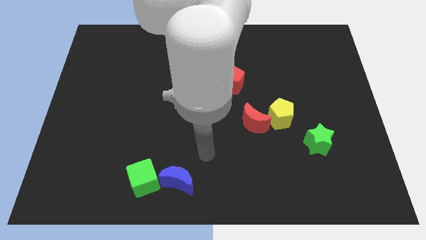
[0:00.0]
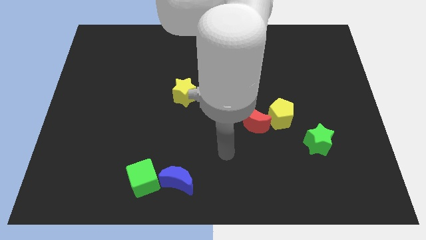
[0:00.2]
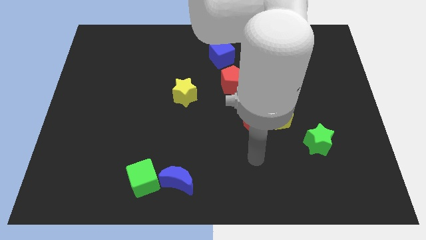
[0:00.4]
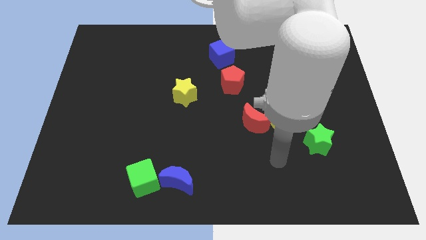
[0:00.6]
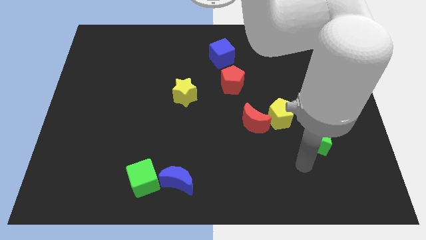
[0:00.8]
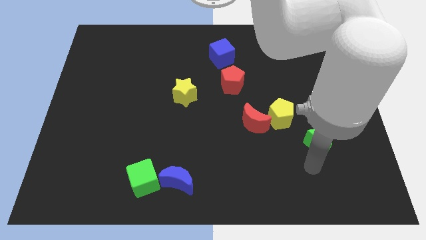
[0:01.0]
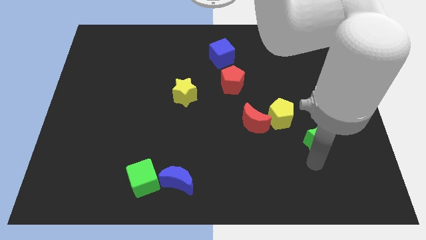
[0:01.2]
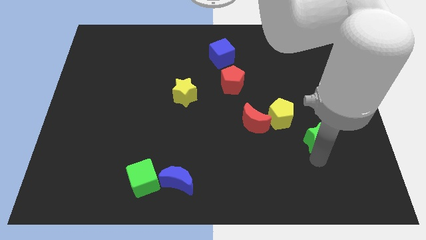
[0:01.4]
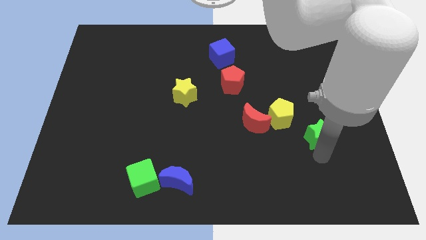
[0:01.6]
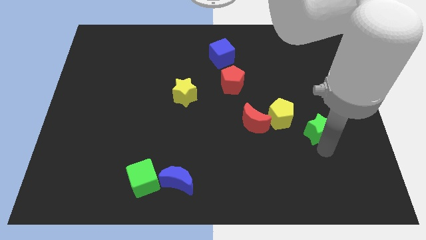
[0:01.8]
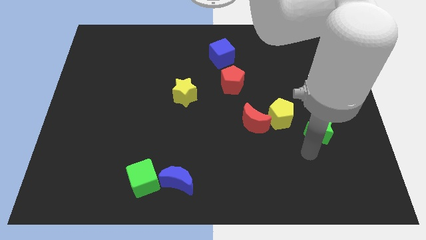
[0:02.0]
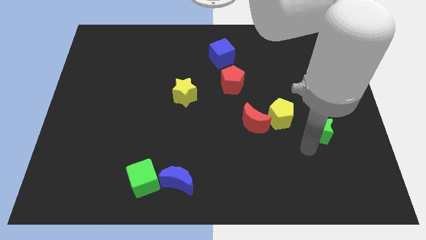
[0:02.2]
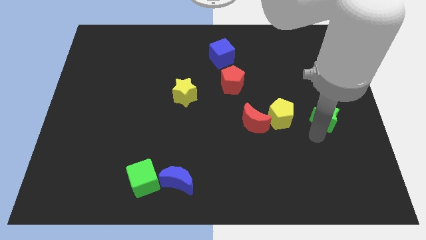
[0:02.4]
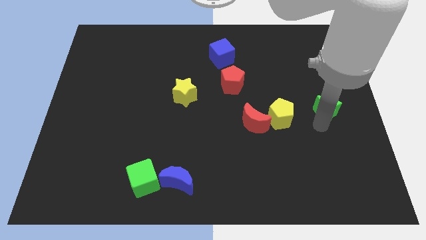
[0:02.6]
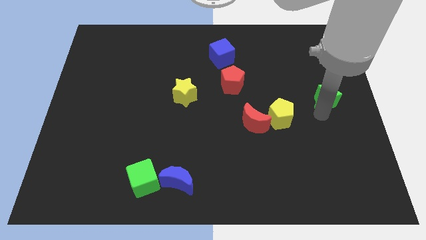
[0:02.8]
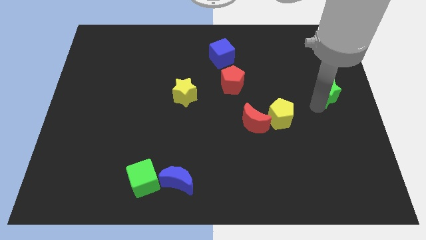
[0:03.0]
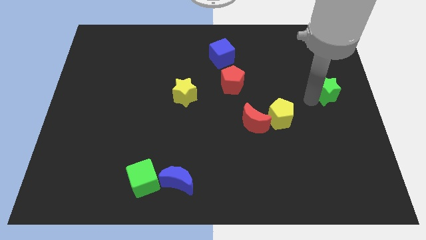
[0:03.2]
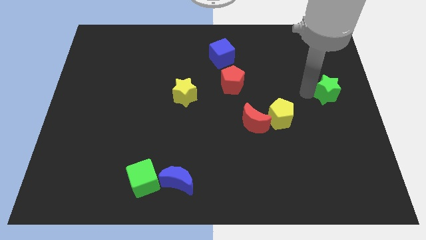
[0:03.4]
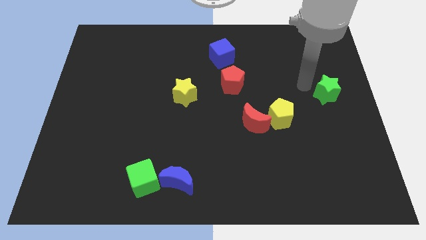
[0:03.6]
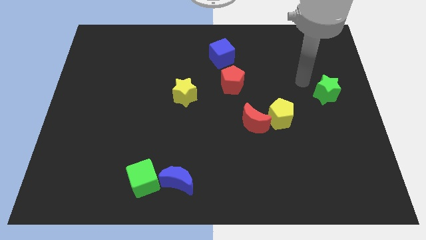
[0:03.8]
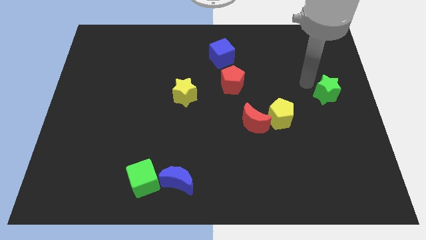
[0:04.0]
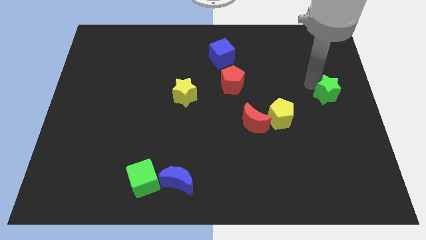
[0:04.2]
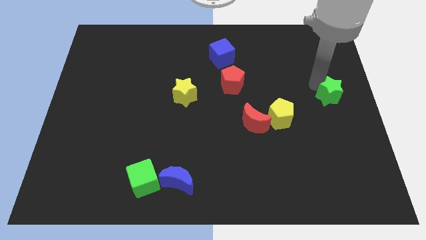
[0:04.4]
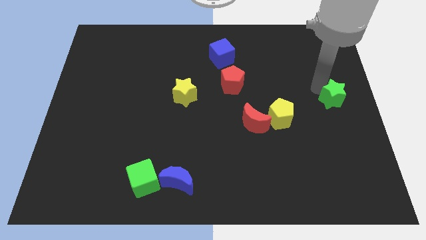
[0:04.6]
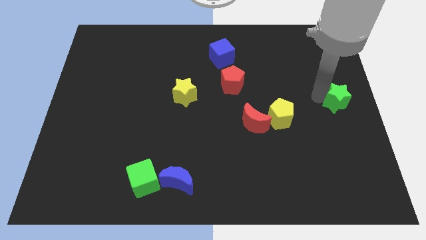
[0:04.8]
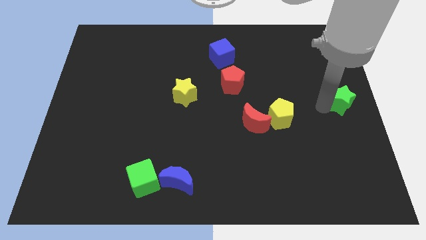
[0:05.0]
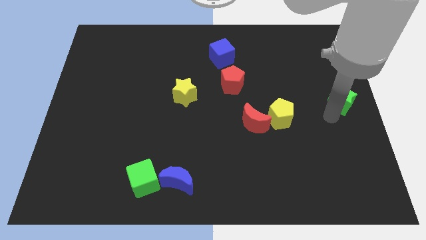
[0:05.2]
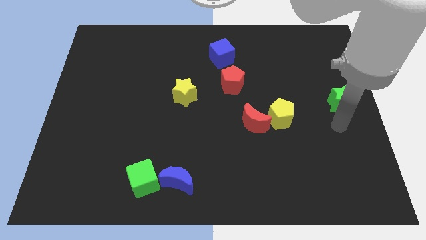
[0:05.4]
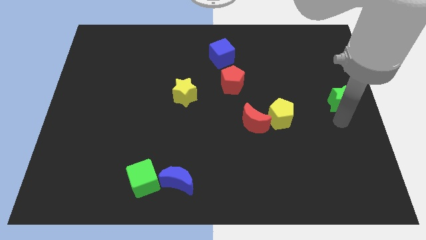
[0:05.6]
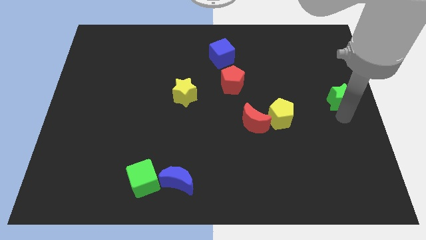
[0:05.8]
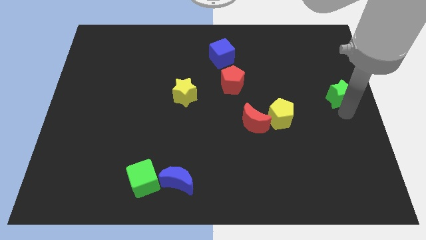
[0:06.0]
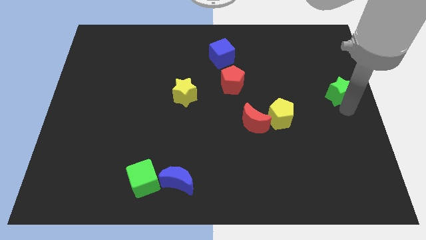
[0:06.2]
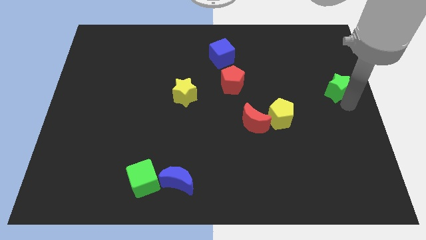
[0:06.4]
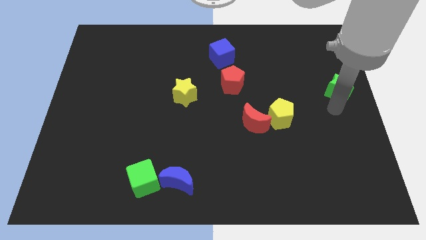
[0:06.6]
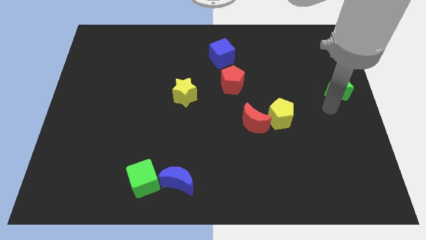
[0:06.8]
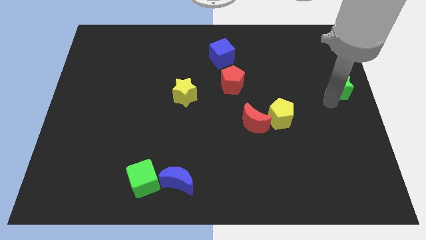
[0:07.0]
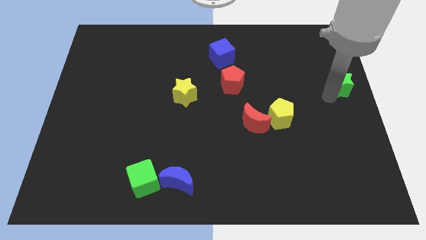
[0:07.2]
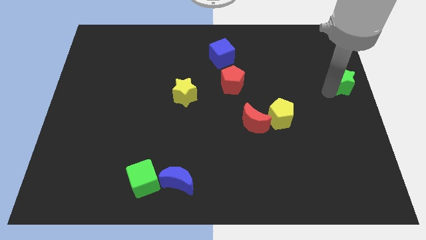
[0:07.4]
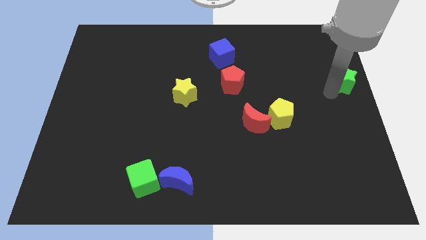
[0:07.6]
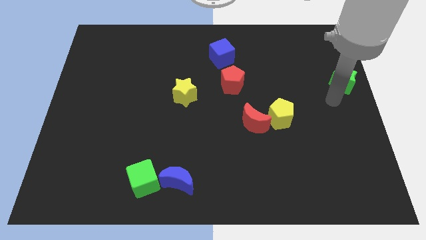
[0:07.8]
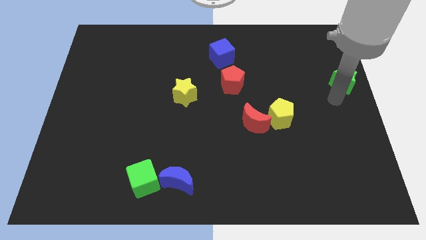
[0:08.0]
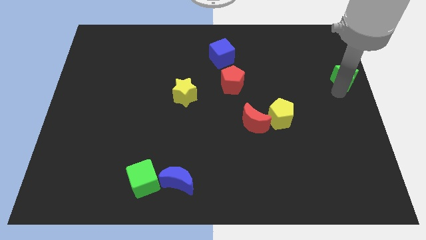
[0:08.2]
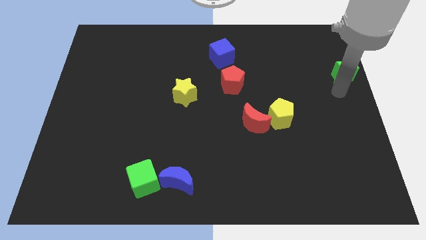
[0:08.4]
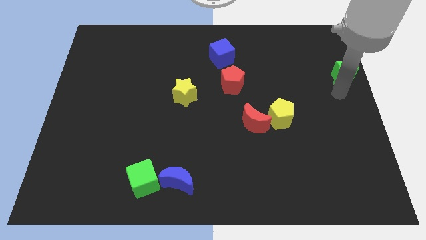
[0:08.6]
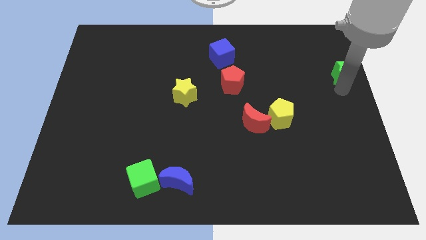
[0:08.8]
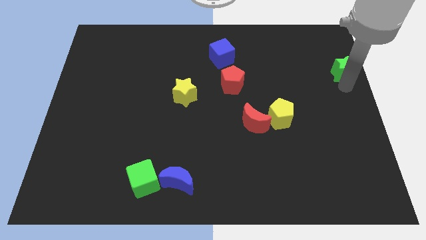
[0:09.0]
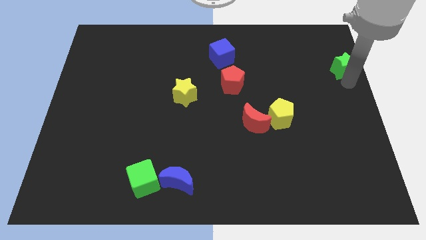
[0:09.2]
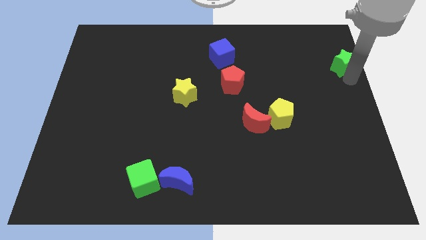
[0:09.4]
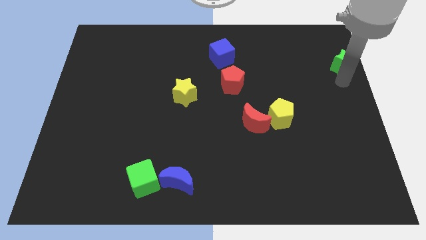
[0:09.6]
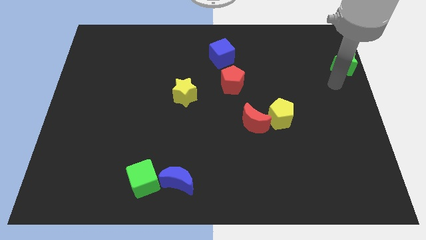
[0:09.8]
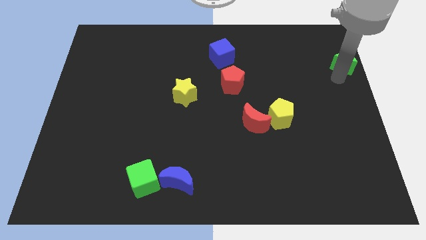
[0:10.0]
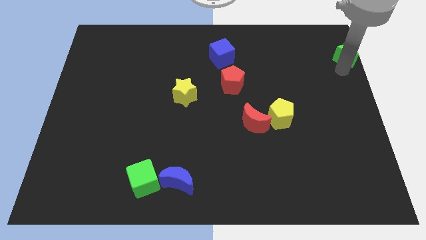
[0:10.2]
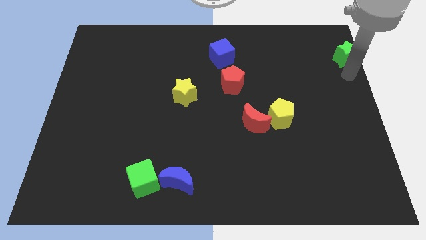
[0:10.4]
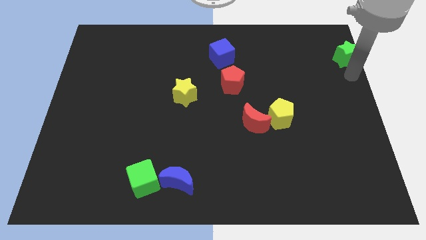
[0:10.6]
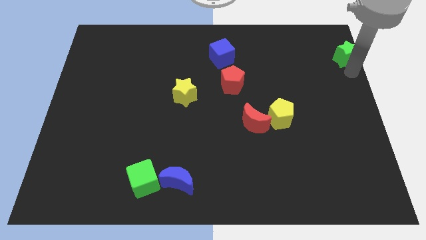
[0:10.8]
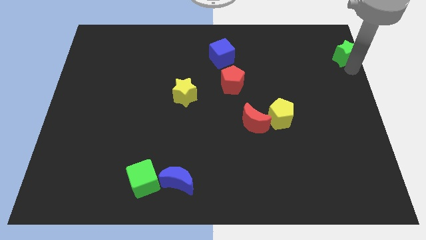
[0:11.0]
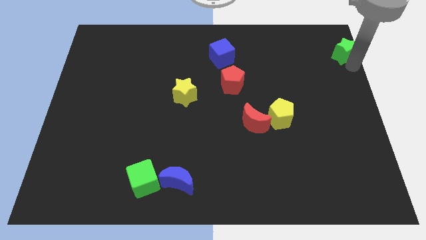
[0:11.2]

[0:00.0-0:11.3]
move the green star to the top right of the board

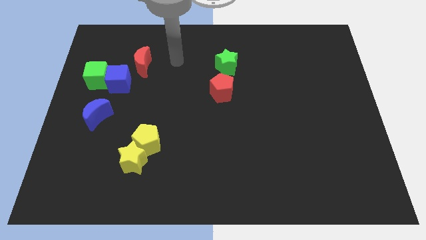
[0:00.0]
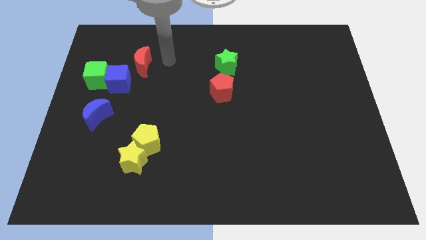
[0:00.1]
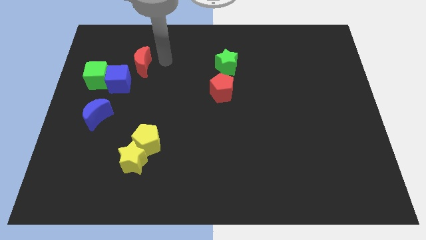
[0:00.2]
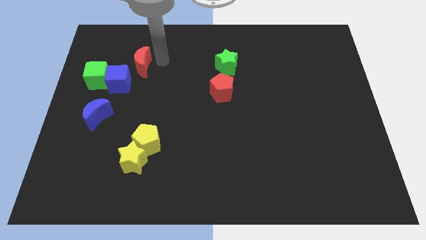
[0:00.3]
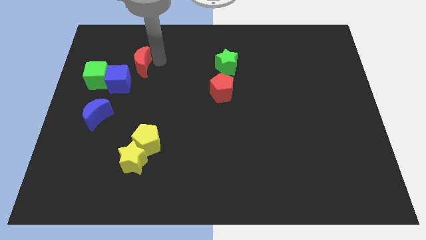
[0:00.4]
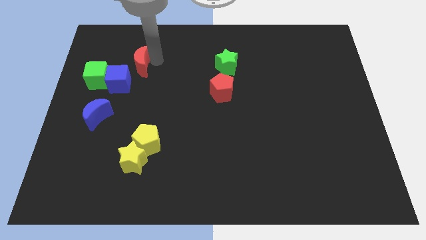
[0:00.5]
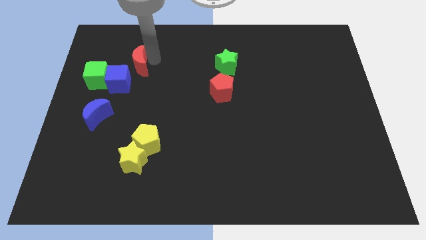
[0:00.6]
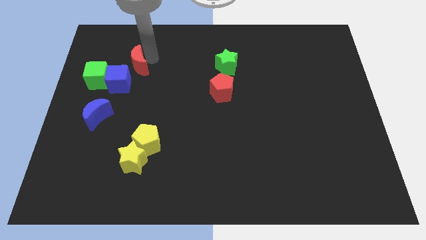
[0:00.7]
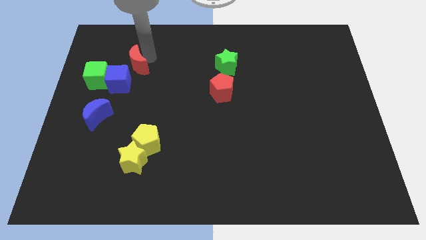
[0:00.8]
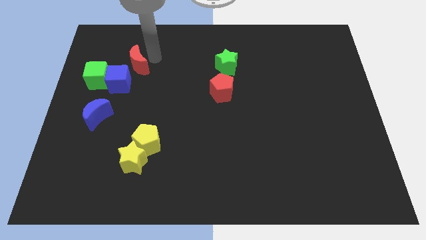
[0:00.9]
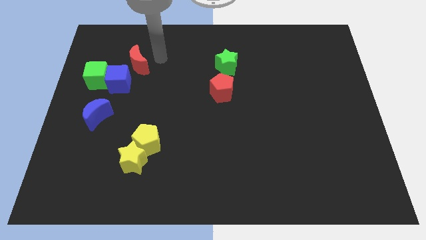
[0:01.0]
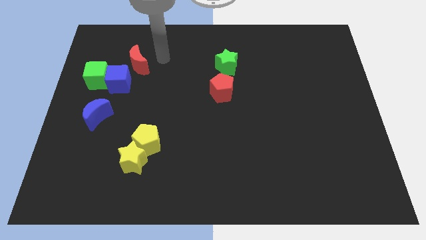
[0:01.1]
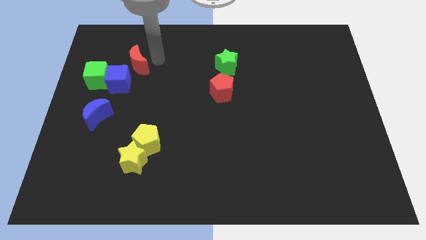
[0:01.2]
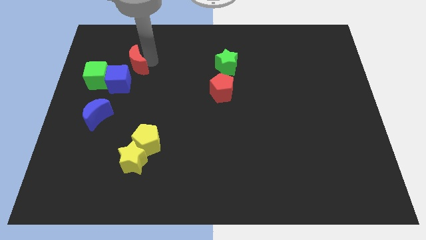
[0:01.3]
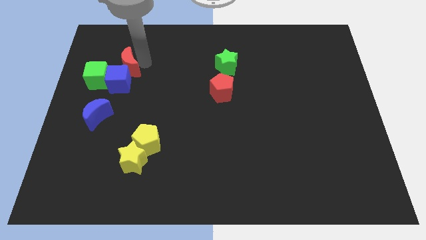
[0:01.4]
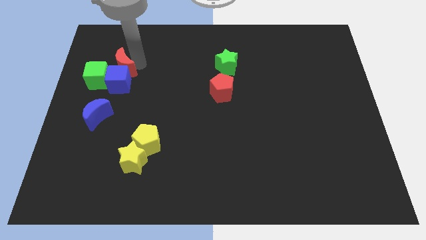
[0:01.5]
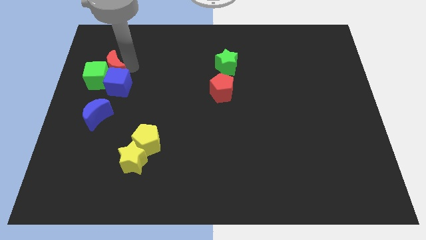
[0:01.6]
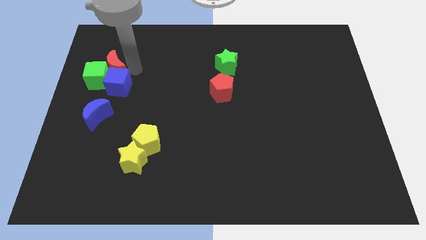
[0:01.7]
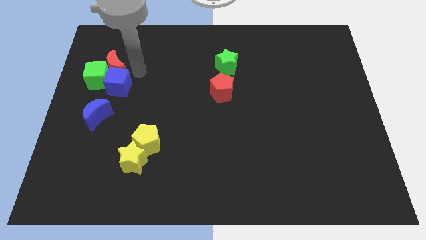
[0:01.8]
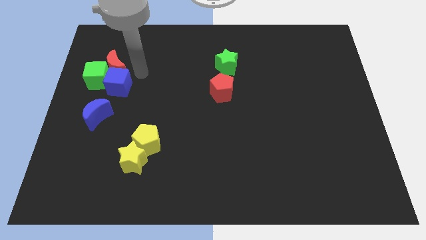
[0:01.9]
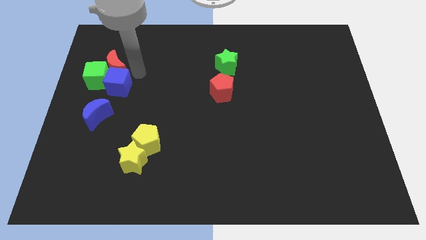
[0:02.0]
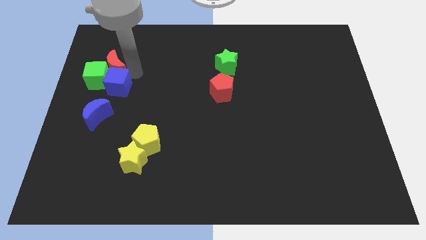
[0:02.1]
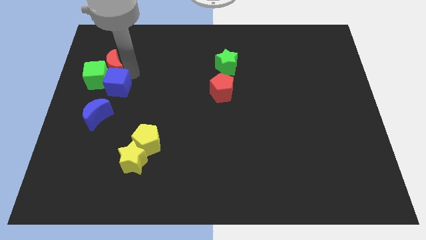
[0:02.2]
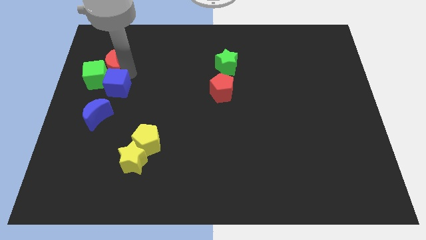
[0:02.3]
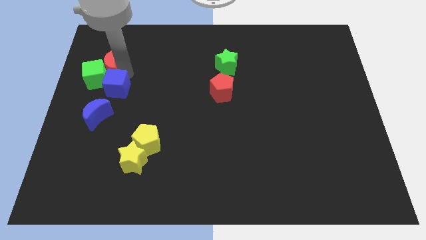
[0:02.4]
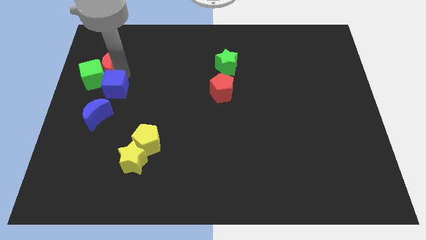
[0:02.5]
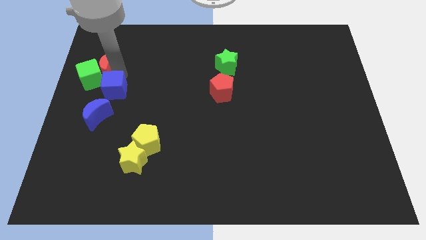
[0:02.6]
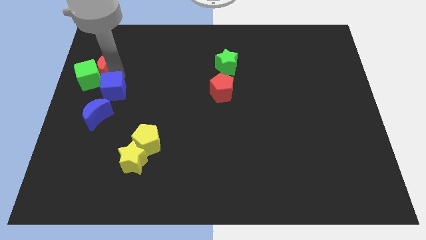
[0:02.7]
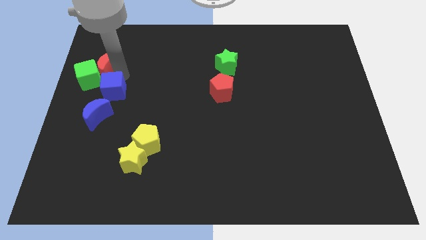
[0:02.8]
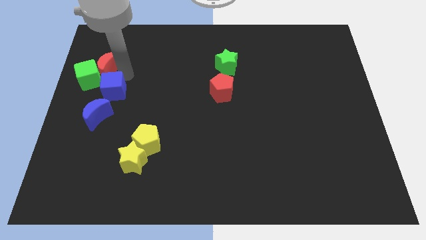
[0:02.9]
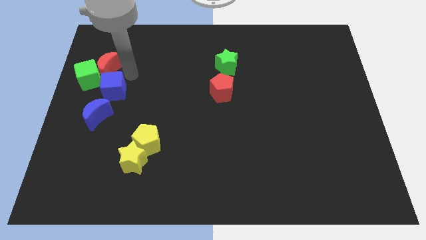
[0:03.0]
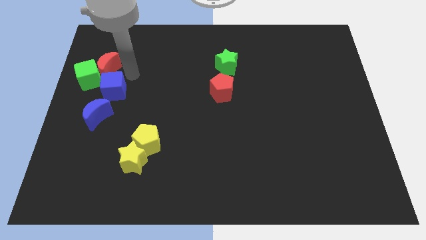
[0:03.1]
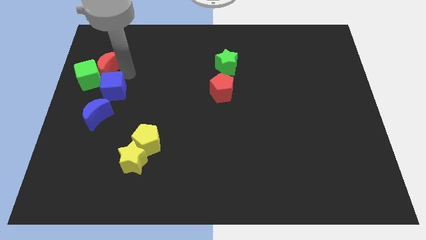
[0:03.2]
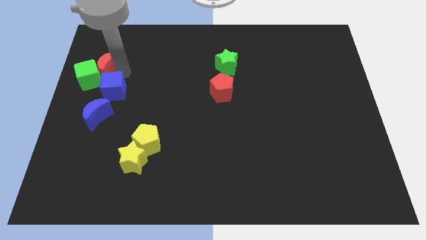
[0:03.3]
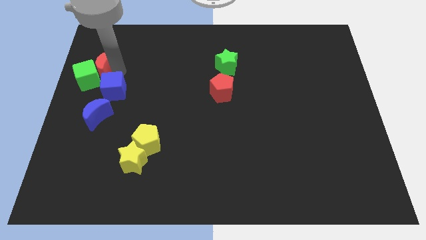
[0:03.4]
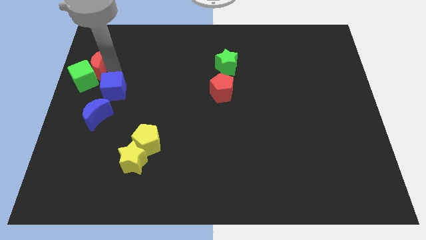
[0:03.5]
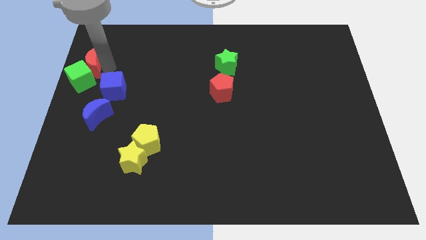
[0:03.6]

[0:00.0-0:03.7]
put the red moon to the center left
